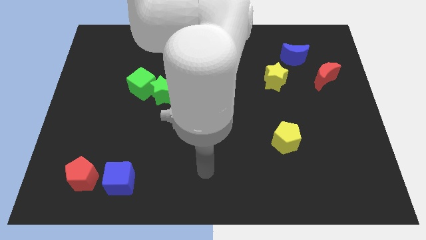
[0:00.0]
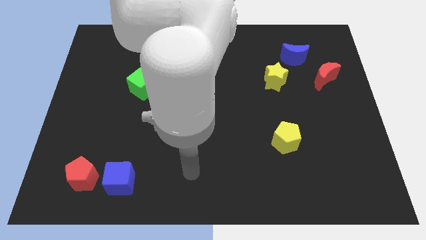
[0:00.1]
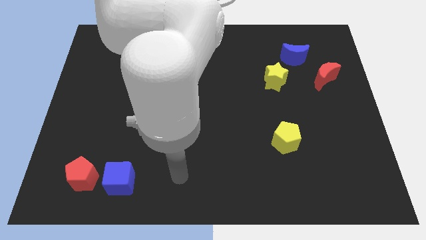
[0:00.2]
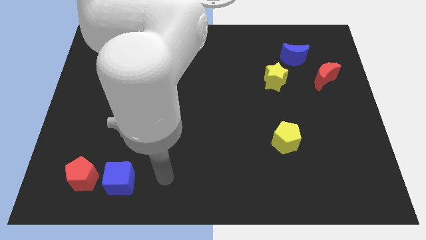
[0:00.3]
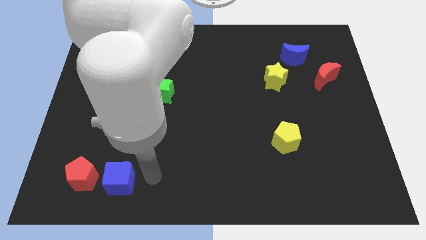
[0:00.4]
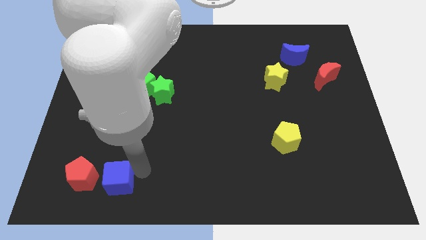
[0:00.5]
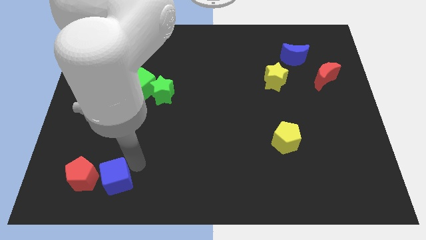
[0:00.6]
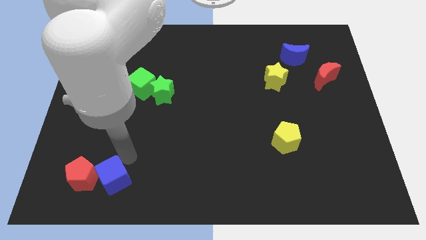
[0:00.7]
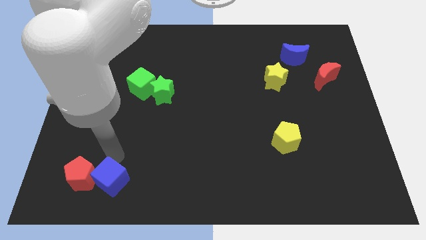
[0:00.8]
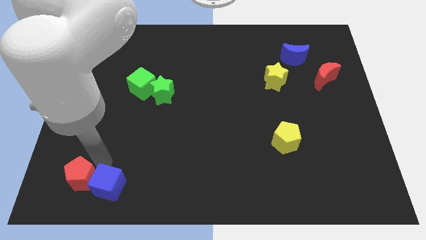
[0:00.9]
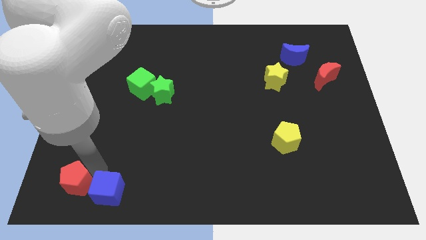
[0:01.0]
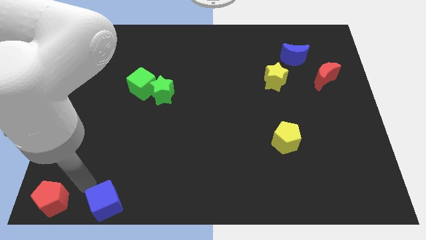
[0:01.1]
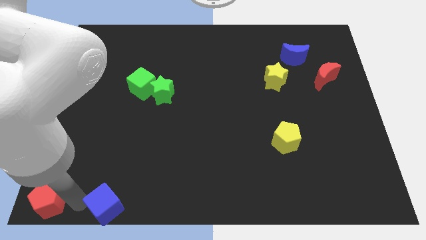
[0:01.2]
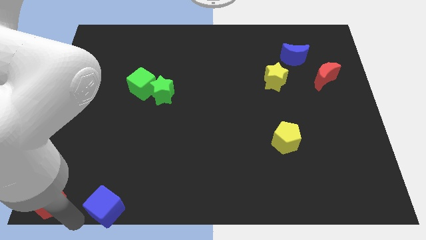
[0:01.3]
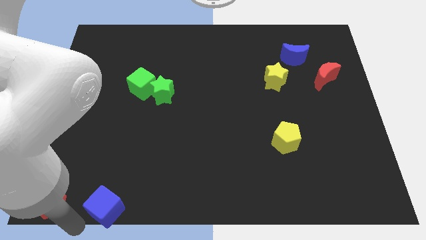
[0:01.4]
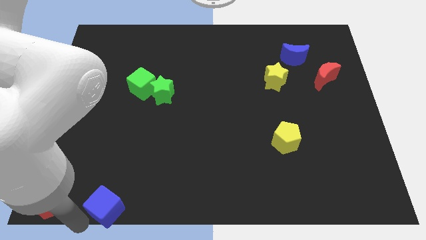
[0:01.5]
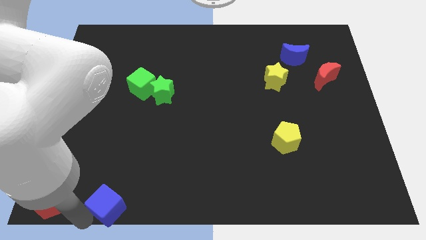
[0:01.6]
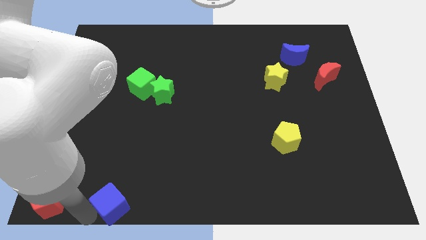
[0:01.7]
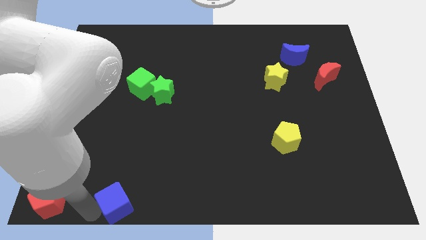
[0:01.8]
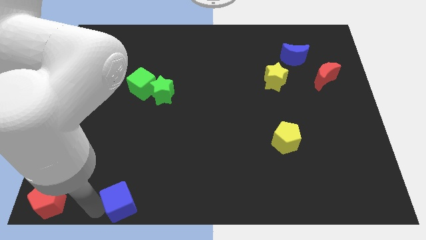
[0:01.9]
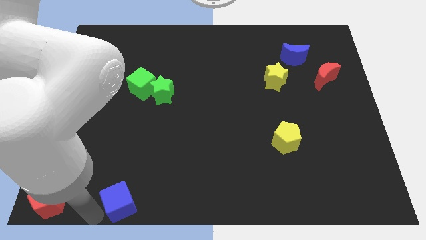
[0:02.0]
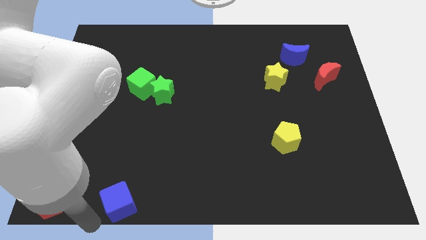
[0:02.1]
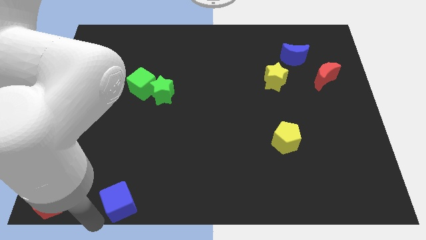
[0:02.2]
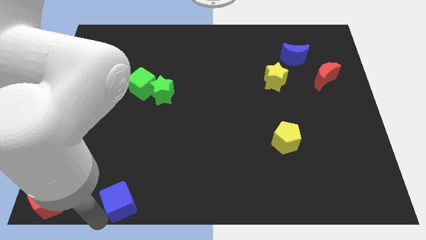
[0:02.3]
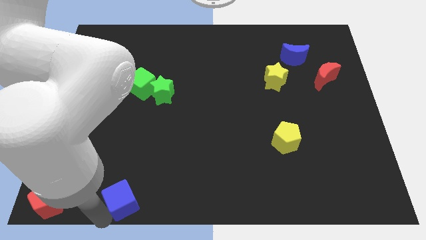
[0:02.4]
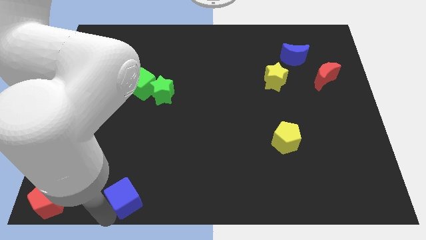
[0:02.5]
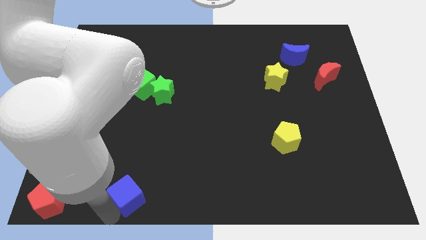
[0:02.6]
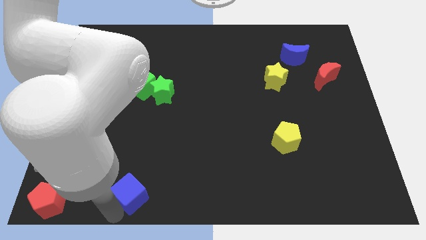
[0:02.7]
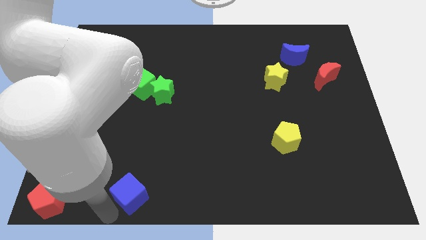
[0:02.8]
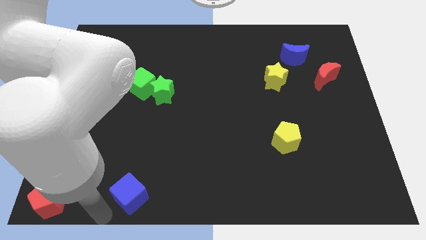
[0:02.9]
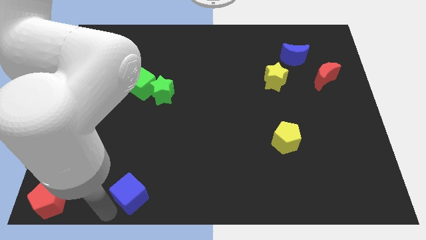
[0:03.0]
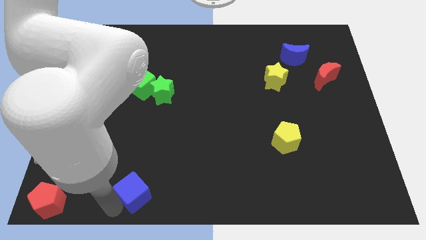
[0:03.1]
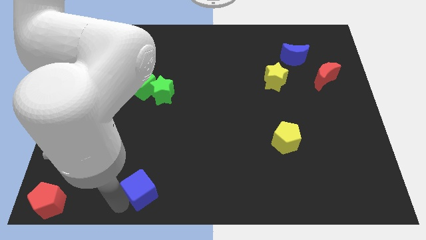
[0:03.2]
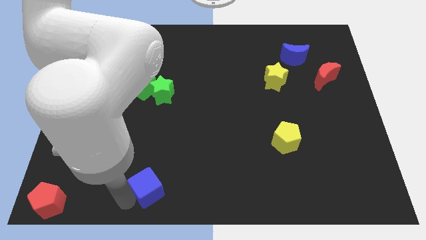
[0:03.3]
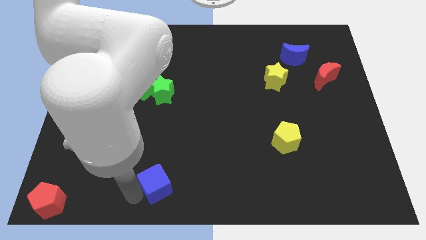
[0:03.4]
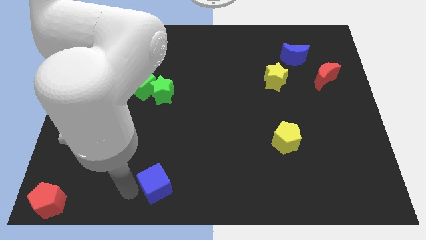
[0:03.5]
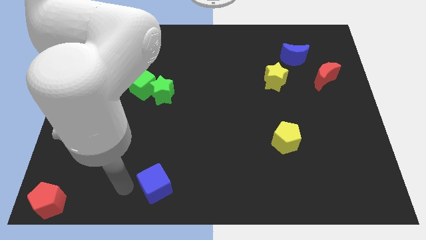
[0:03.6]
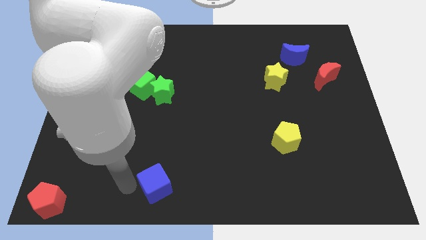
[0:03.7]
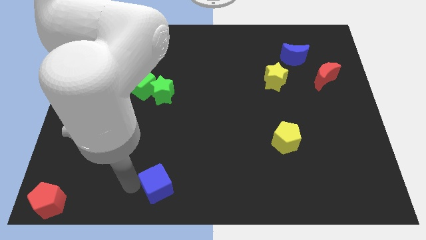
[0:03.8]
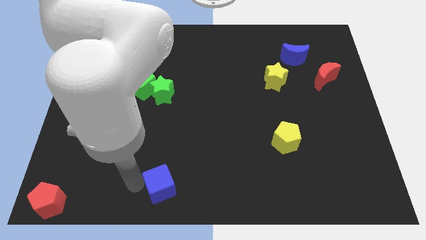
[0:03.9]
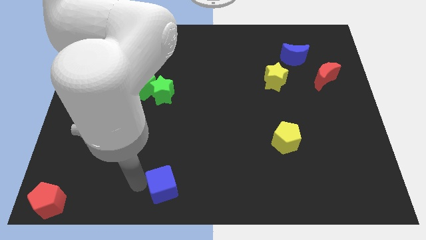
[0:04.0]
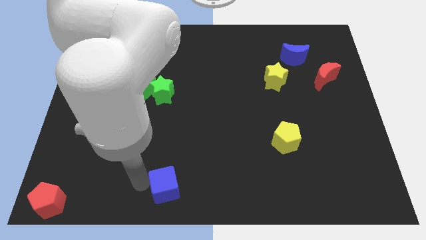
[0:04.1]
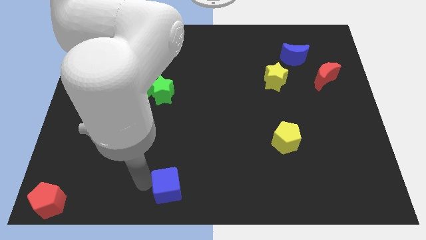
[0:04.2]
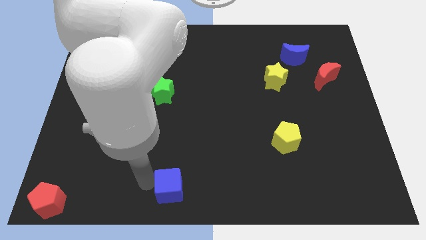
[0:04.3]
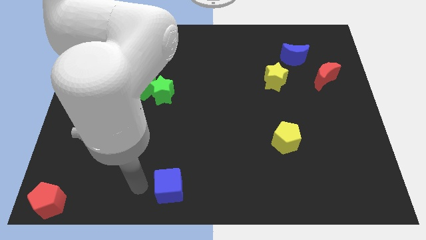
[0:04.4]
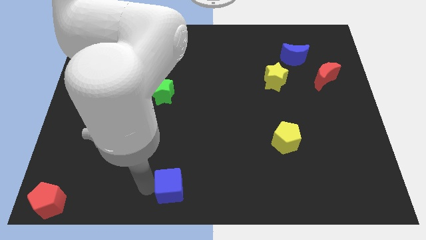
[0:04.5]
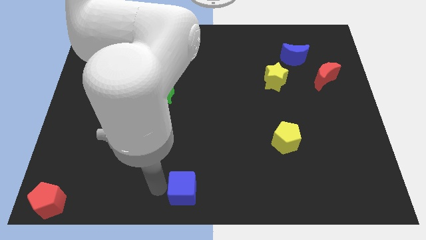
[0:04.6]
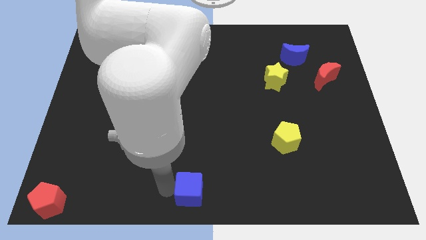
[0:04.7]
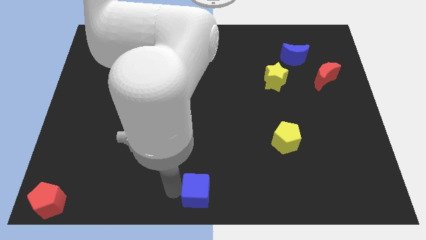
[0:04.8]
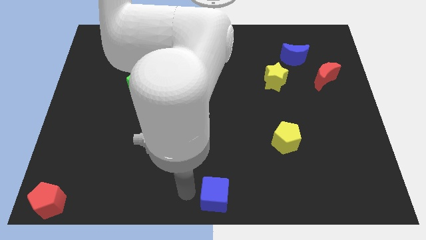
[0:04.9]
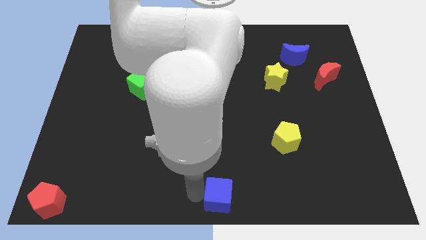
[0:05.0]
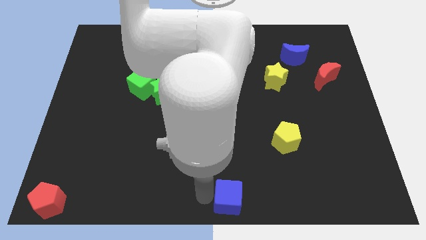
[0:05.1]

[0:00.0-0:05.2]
push the blue cube right

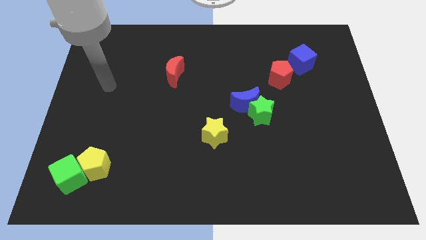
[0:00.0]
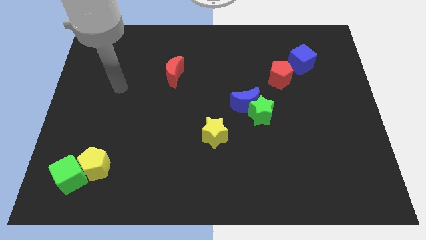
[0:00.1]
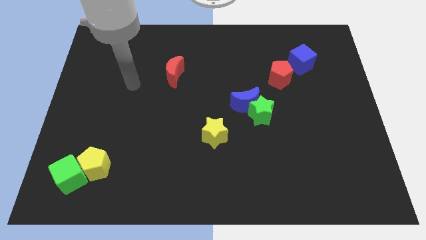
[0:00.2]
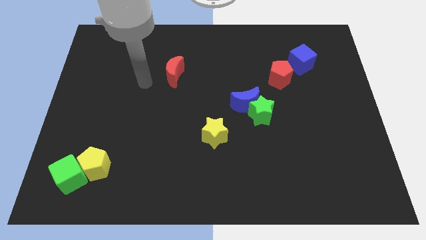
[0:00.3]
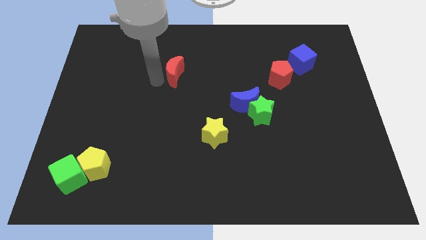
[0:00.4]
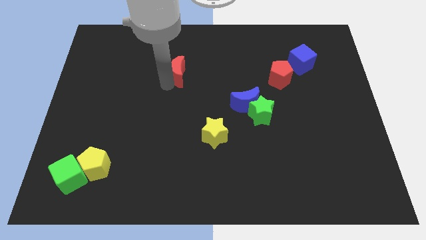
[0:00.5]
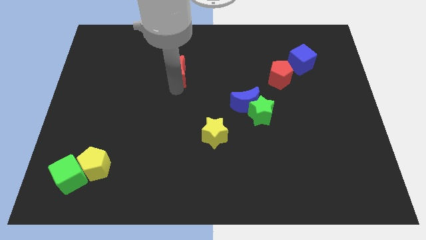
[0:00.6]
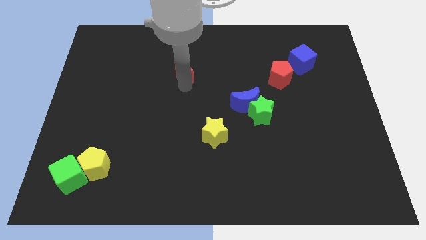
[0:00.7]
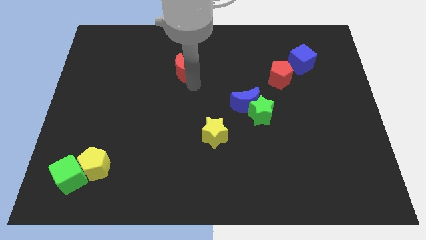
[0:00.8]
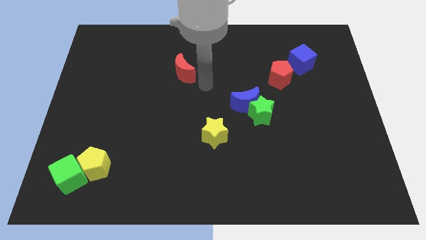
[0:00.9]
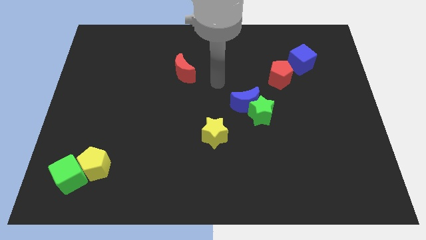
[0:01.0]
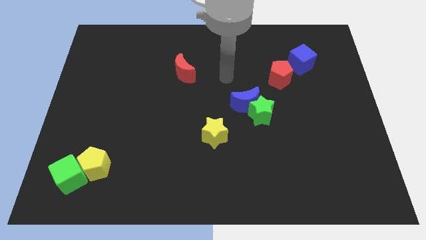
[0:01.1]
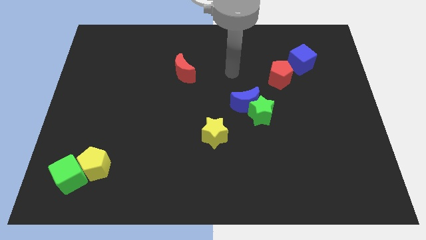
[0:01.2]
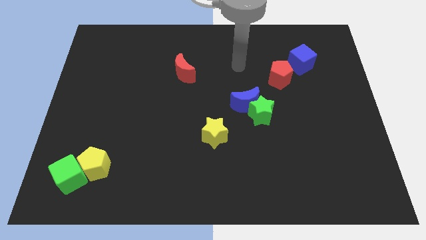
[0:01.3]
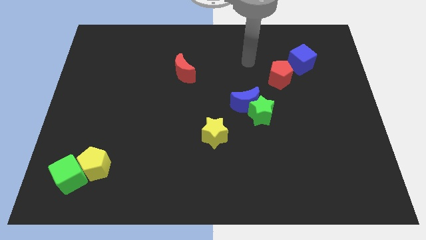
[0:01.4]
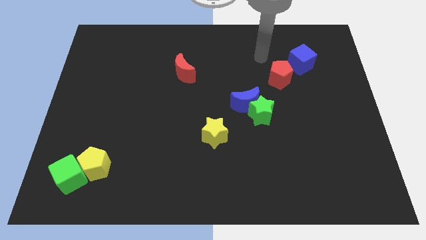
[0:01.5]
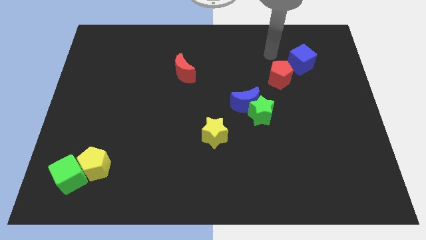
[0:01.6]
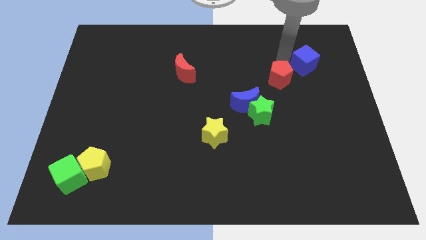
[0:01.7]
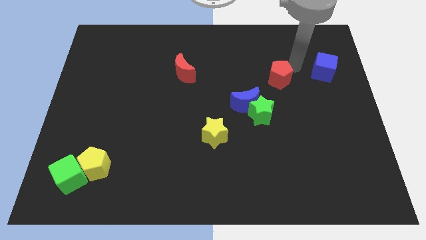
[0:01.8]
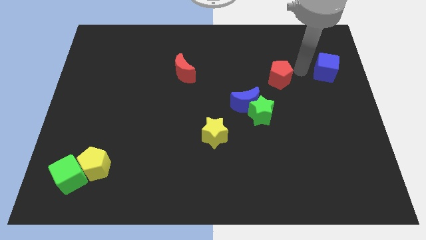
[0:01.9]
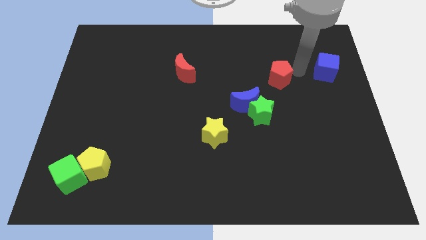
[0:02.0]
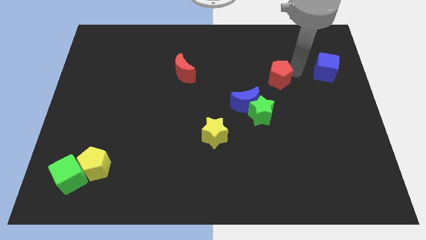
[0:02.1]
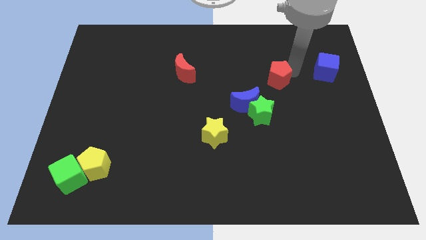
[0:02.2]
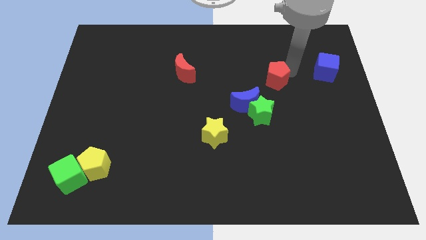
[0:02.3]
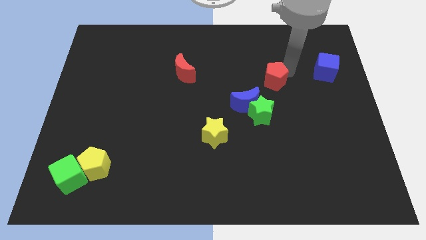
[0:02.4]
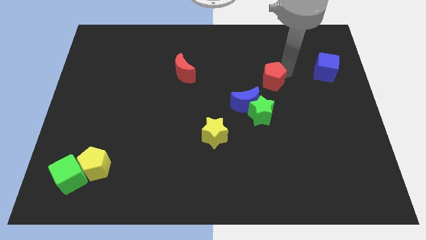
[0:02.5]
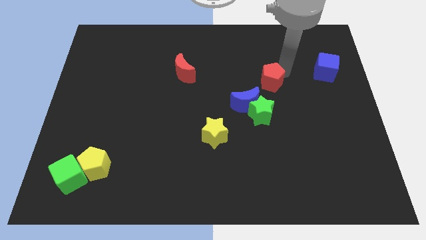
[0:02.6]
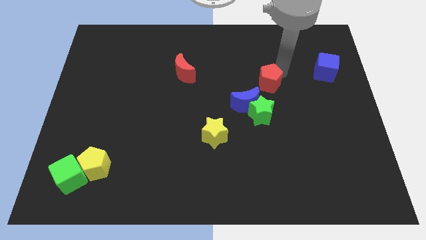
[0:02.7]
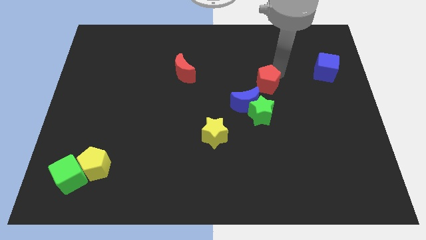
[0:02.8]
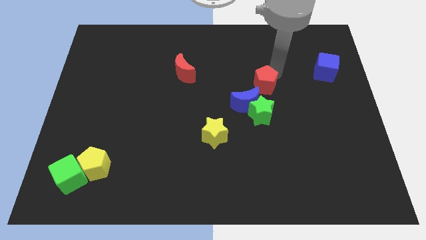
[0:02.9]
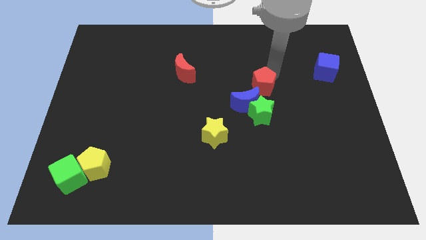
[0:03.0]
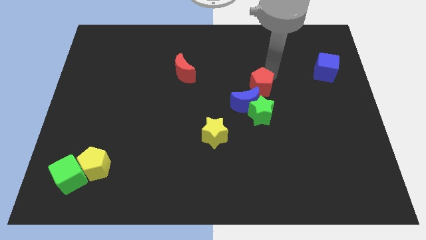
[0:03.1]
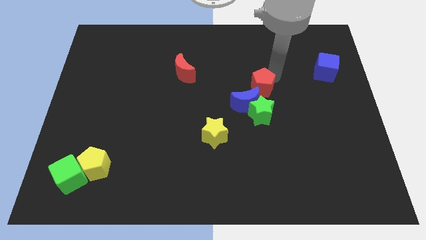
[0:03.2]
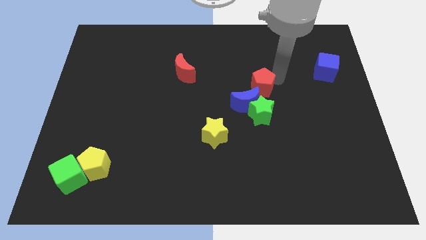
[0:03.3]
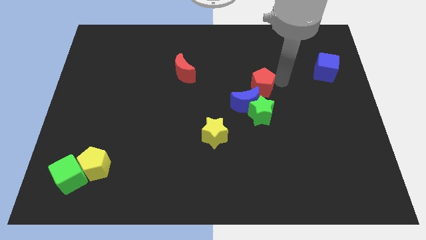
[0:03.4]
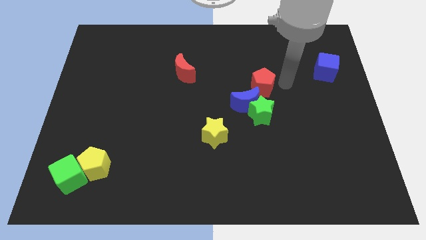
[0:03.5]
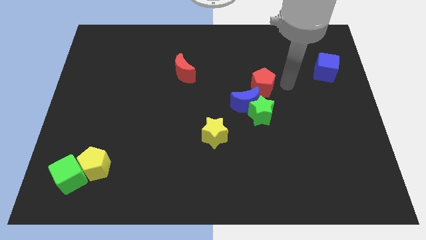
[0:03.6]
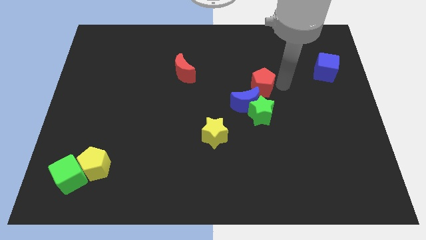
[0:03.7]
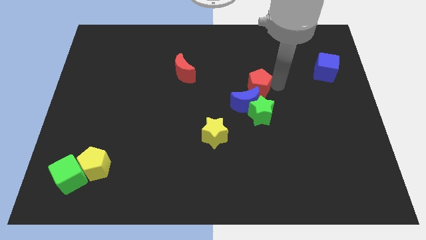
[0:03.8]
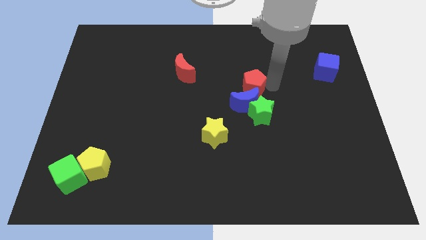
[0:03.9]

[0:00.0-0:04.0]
slightly push the red pentagon downwards and then to the left
